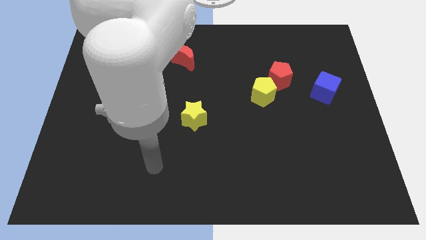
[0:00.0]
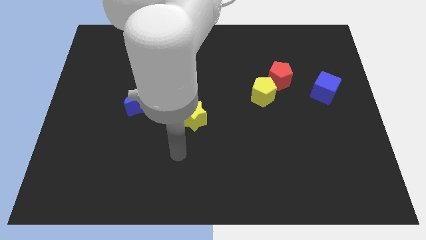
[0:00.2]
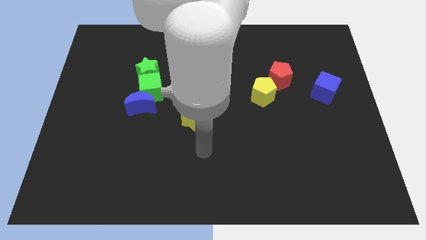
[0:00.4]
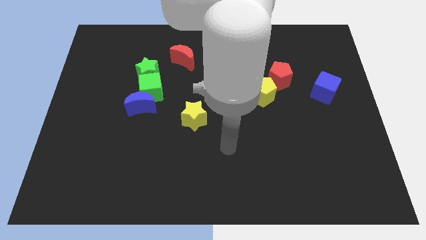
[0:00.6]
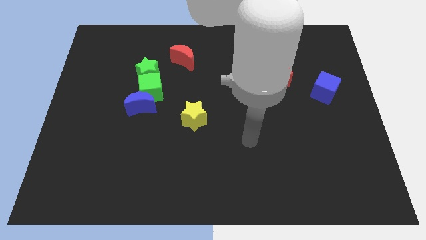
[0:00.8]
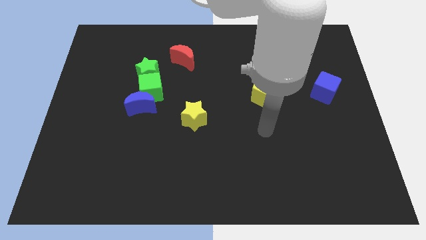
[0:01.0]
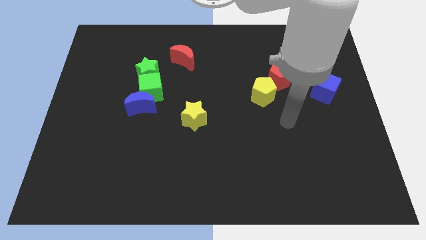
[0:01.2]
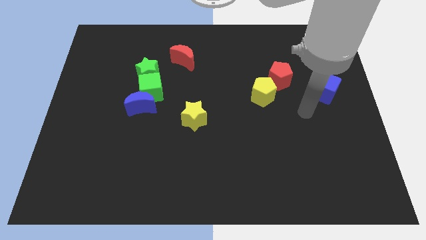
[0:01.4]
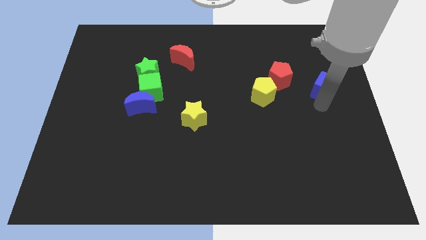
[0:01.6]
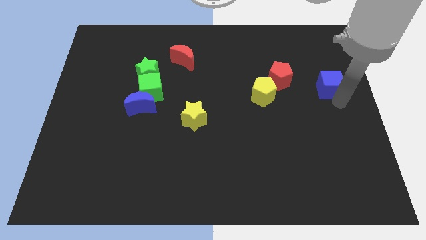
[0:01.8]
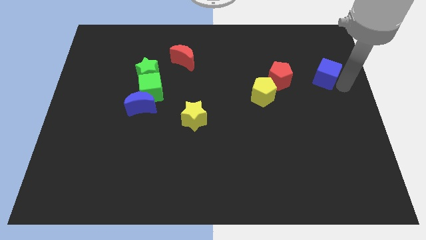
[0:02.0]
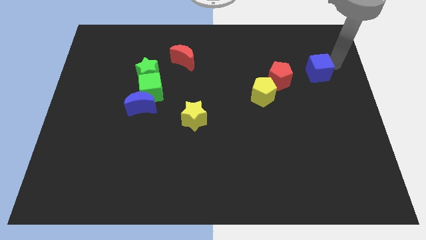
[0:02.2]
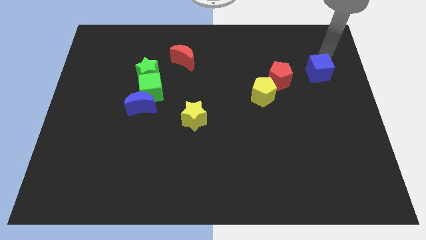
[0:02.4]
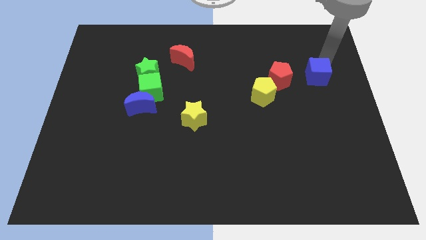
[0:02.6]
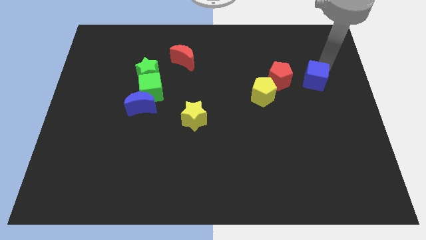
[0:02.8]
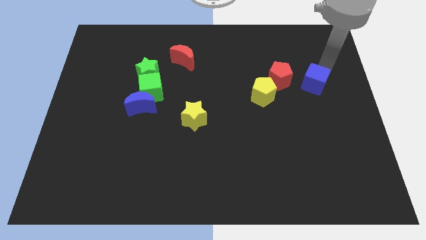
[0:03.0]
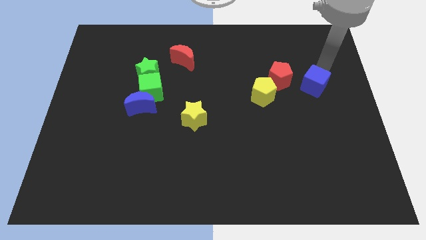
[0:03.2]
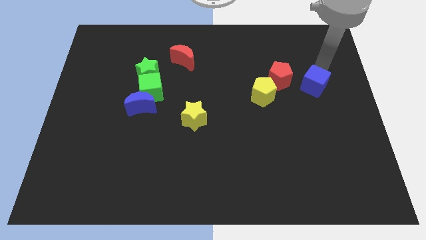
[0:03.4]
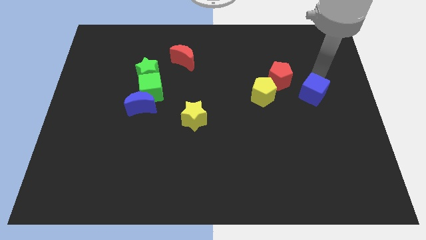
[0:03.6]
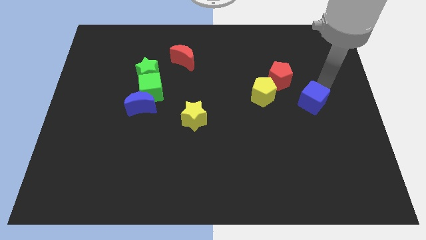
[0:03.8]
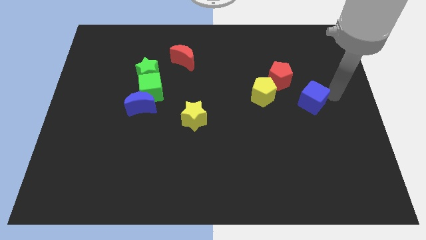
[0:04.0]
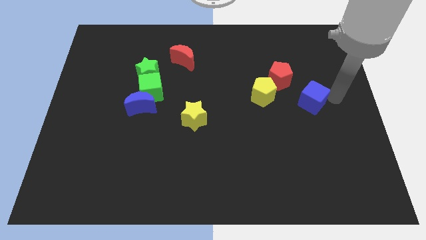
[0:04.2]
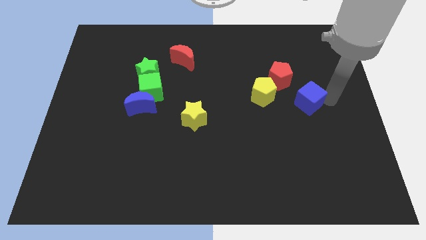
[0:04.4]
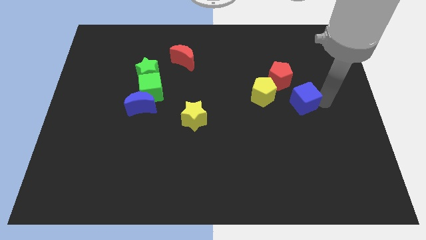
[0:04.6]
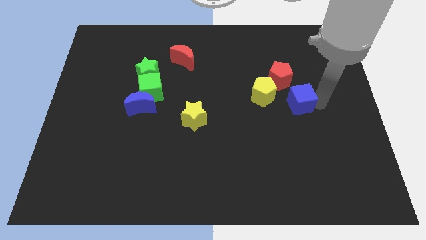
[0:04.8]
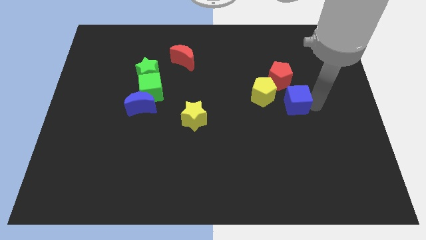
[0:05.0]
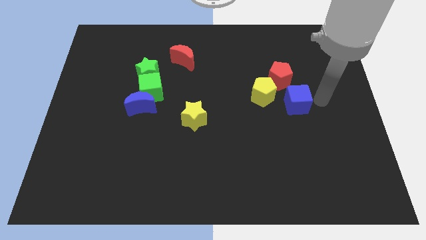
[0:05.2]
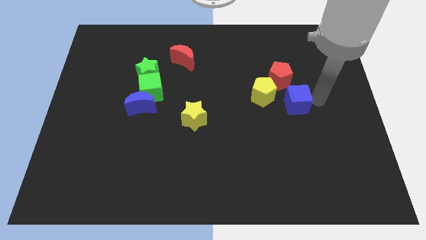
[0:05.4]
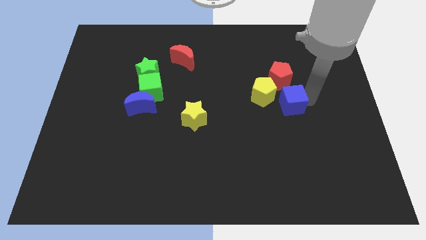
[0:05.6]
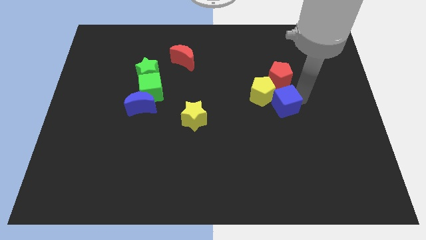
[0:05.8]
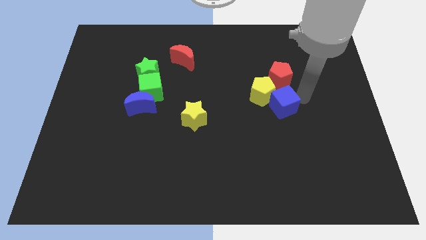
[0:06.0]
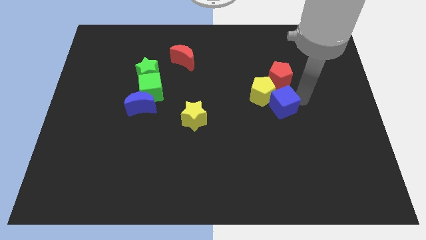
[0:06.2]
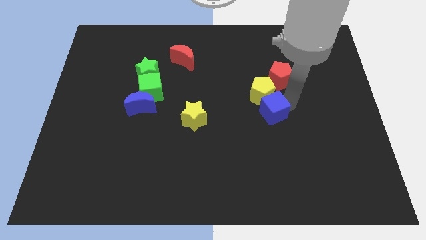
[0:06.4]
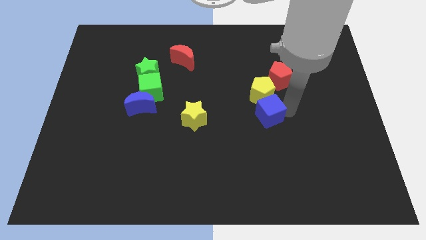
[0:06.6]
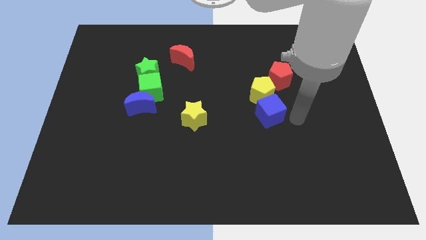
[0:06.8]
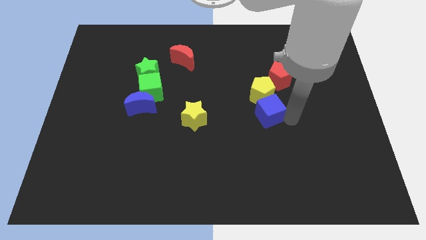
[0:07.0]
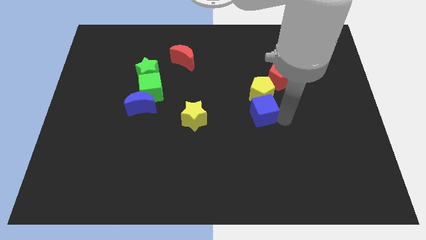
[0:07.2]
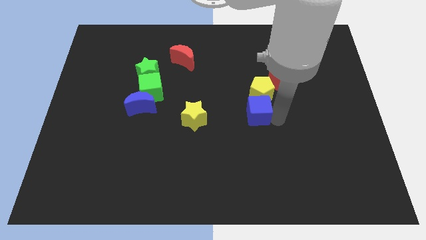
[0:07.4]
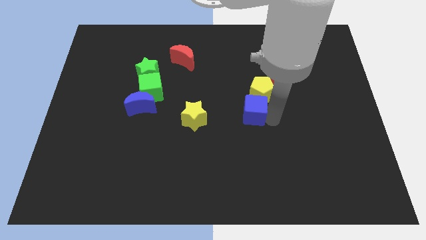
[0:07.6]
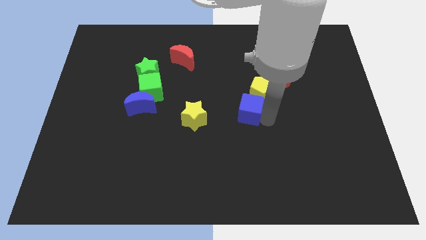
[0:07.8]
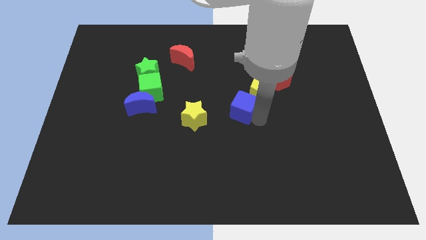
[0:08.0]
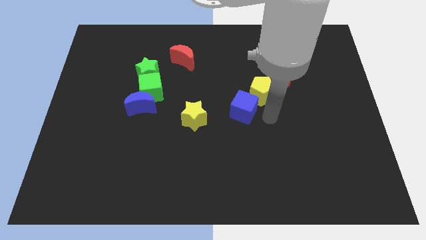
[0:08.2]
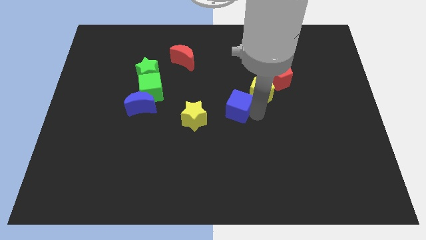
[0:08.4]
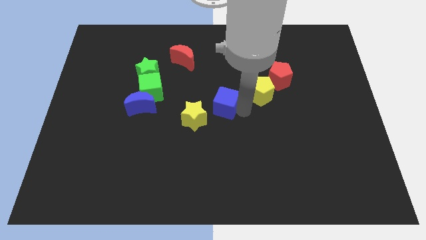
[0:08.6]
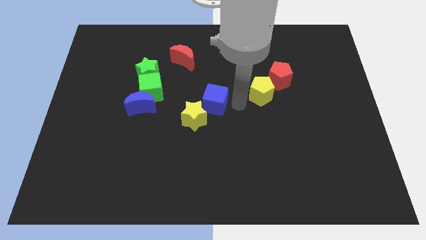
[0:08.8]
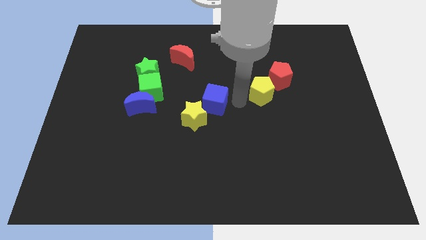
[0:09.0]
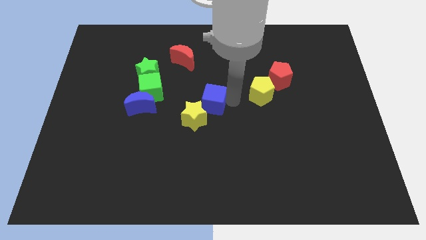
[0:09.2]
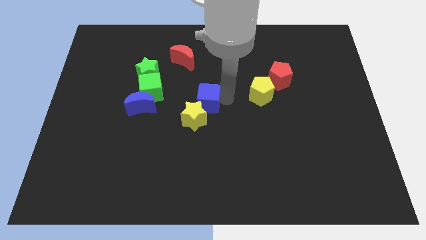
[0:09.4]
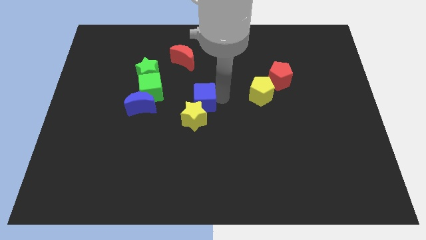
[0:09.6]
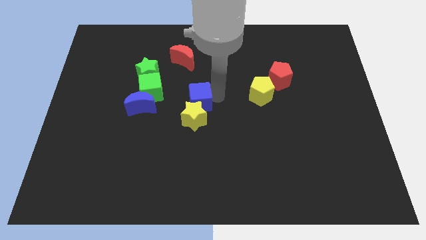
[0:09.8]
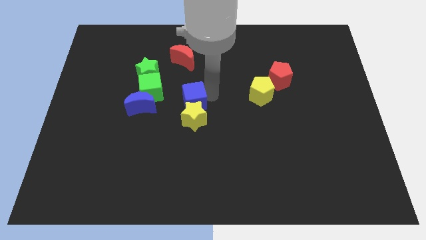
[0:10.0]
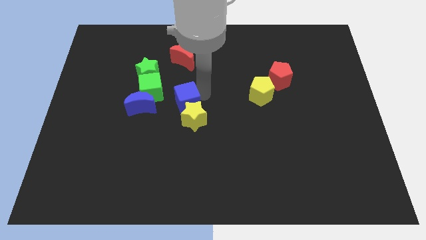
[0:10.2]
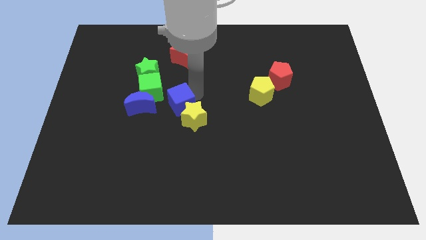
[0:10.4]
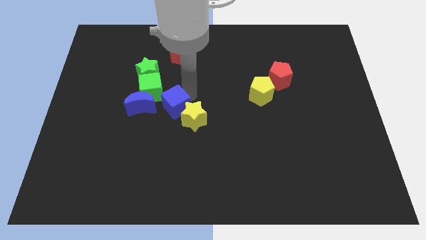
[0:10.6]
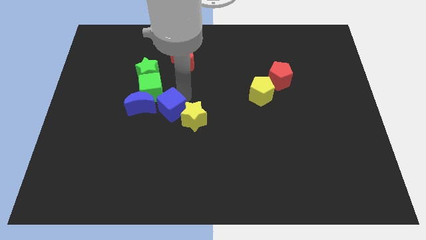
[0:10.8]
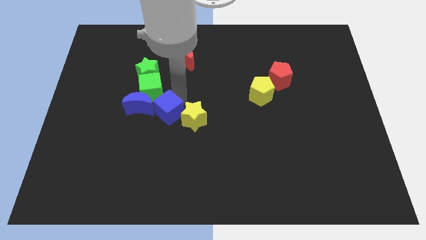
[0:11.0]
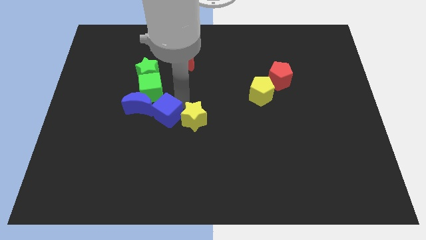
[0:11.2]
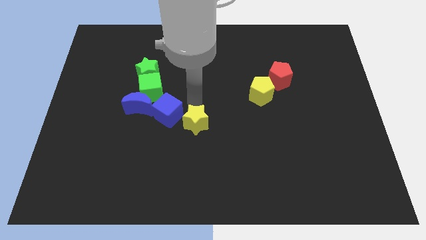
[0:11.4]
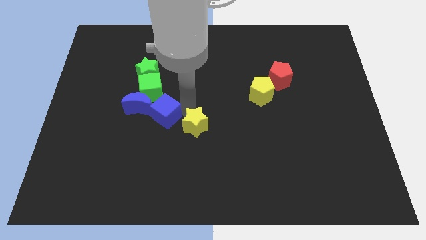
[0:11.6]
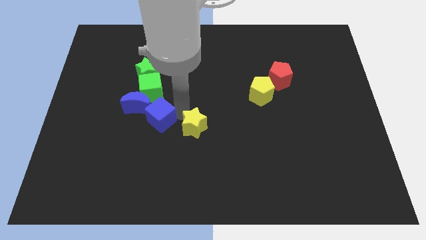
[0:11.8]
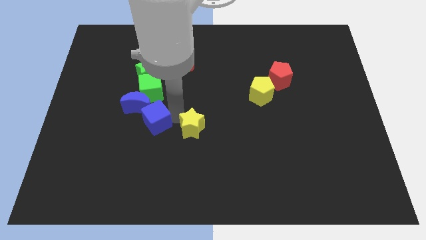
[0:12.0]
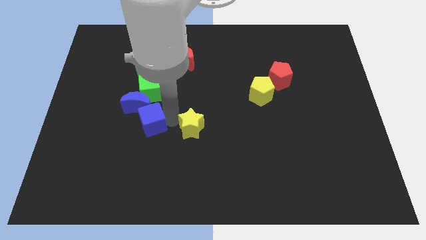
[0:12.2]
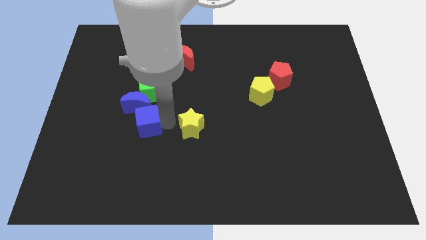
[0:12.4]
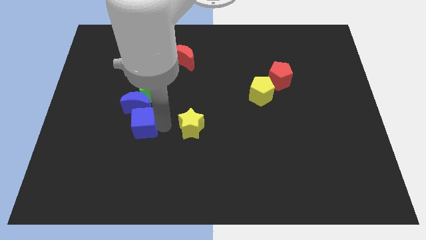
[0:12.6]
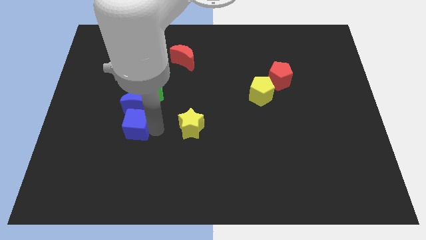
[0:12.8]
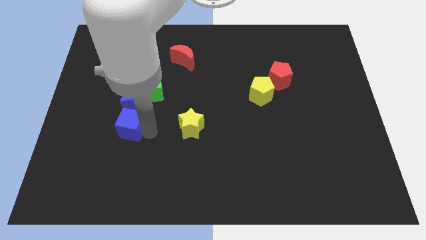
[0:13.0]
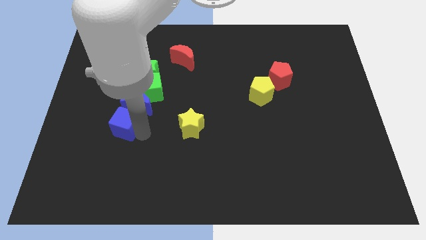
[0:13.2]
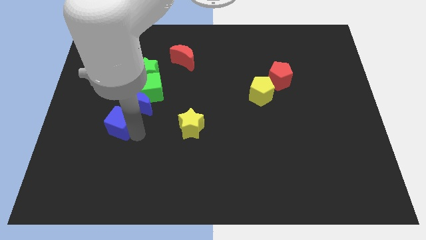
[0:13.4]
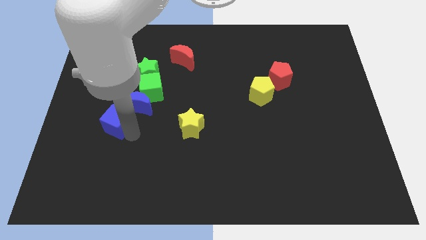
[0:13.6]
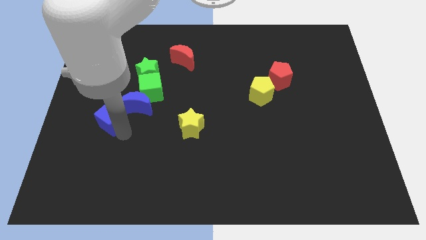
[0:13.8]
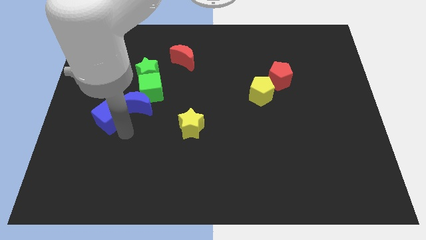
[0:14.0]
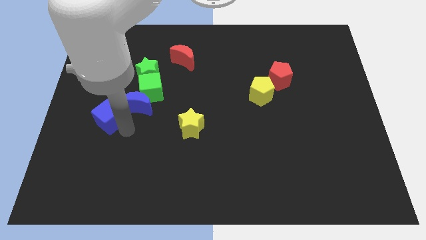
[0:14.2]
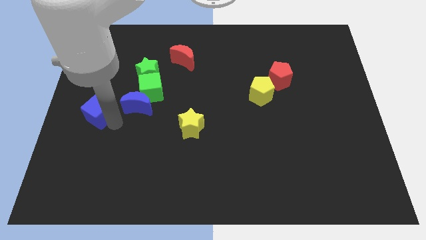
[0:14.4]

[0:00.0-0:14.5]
push the blue cube to the center left

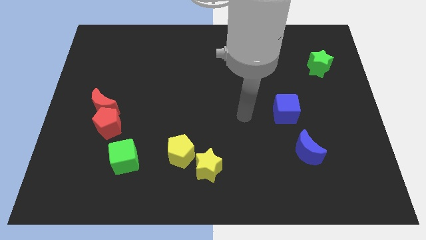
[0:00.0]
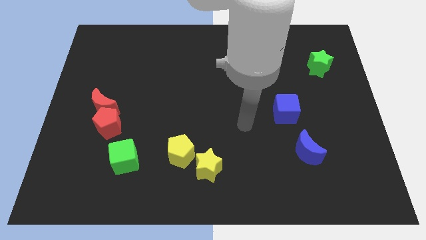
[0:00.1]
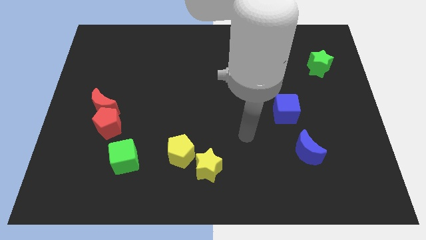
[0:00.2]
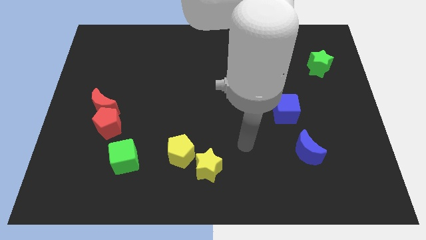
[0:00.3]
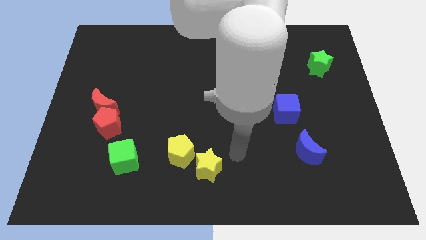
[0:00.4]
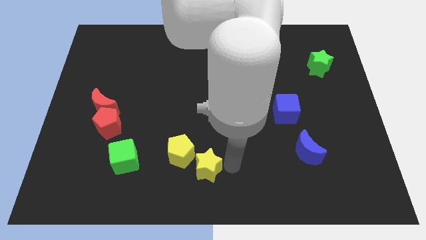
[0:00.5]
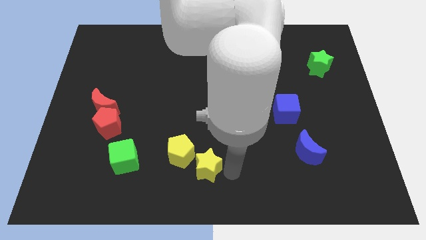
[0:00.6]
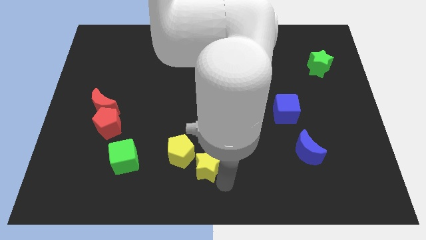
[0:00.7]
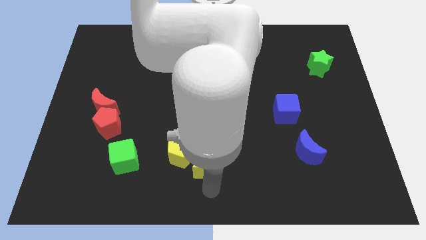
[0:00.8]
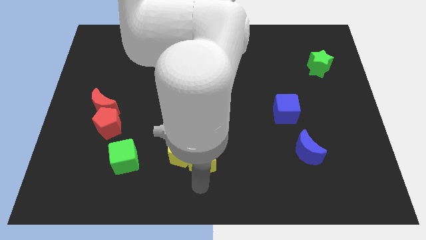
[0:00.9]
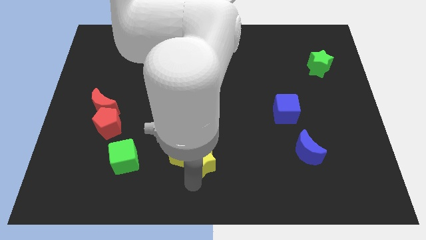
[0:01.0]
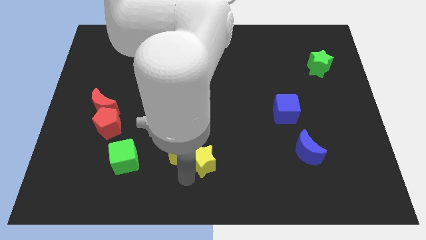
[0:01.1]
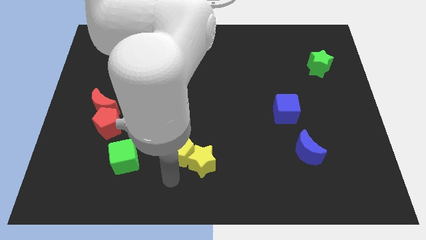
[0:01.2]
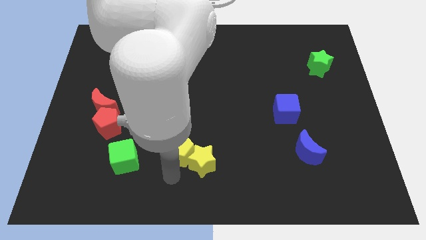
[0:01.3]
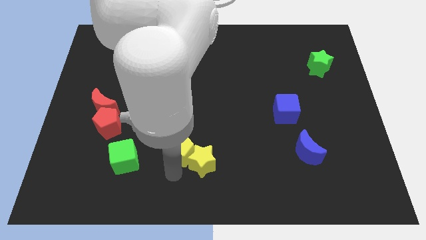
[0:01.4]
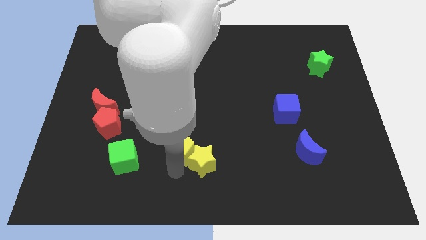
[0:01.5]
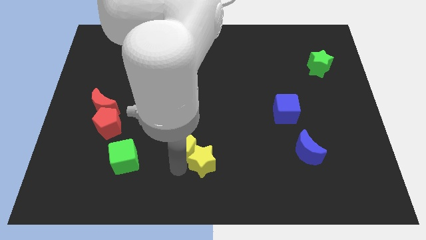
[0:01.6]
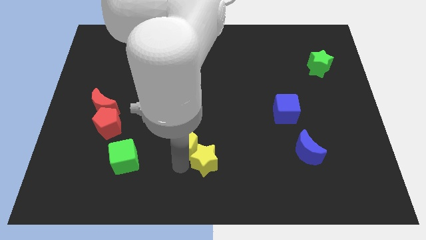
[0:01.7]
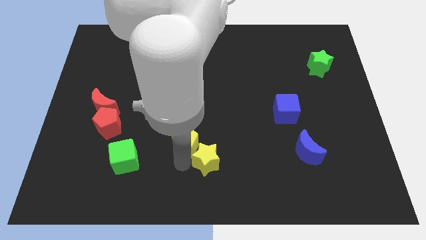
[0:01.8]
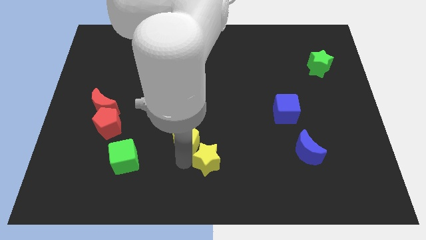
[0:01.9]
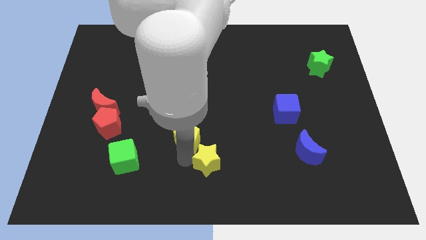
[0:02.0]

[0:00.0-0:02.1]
slide the yellow pentagon to the center
